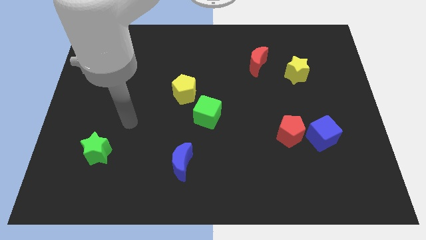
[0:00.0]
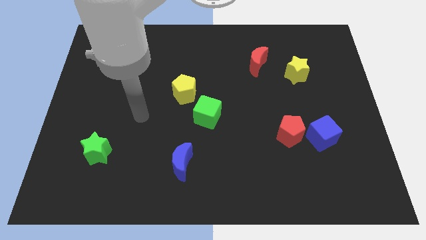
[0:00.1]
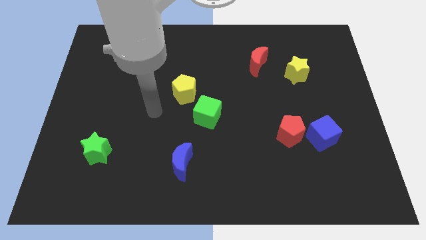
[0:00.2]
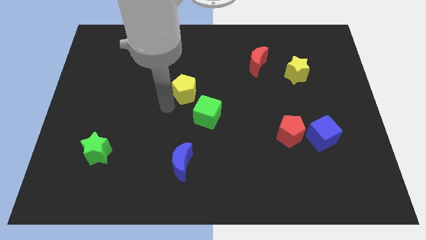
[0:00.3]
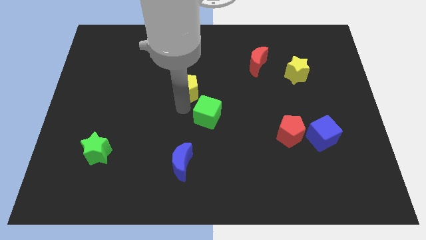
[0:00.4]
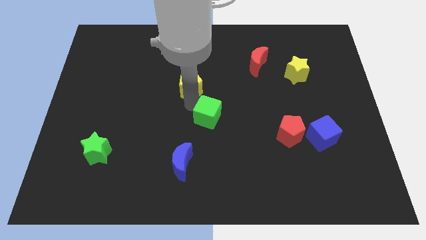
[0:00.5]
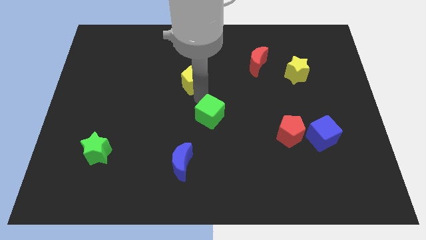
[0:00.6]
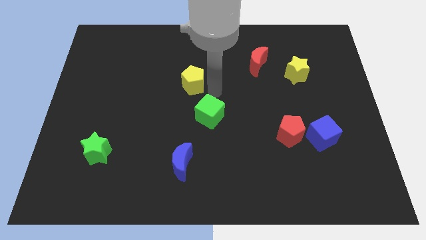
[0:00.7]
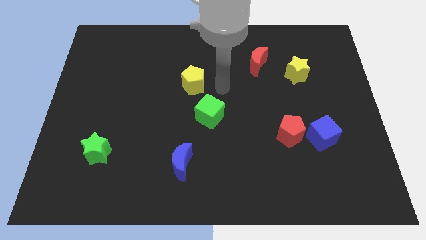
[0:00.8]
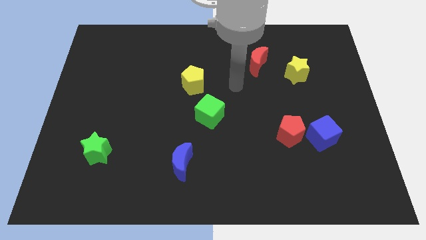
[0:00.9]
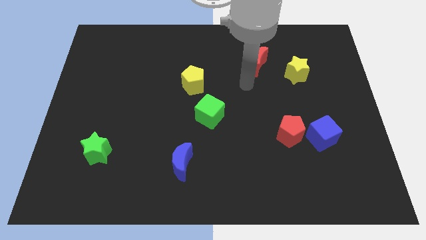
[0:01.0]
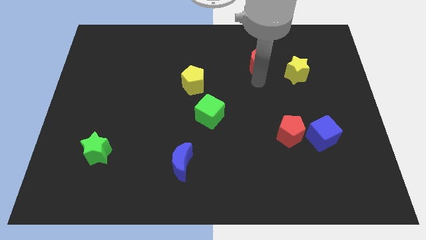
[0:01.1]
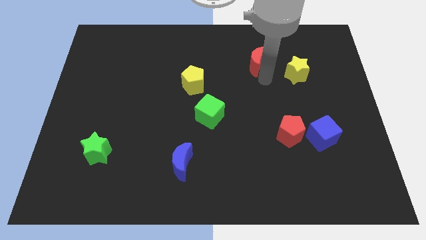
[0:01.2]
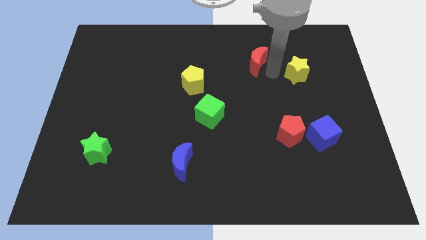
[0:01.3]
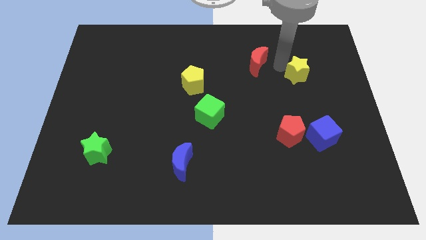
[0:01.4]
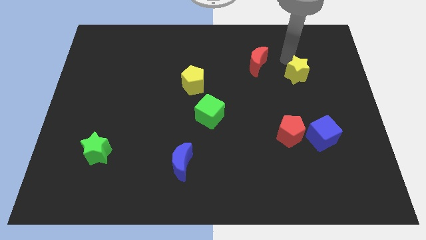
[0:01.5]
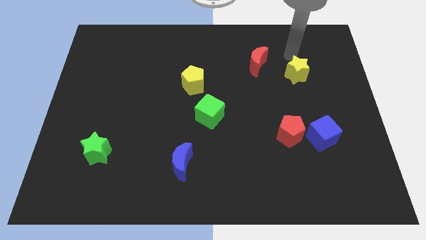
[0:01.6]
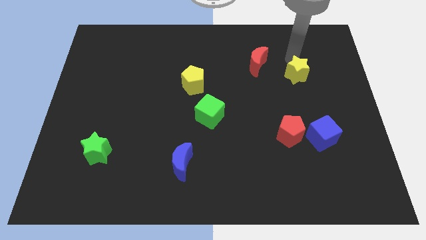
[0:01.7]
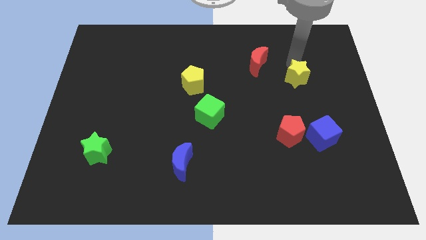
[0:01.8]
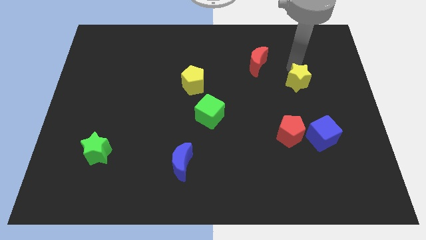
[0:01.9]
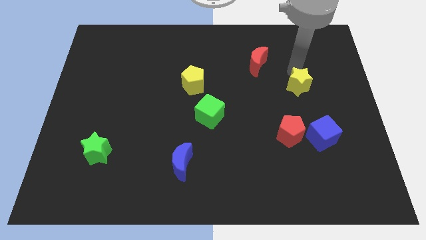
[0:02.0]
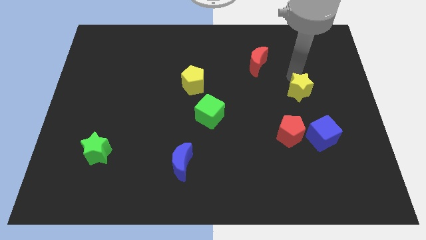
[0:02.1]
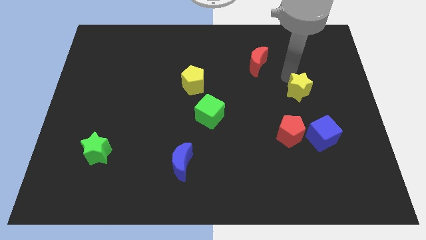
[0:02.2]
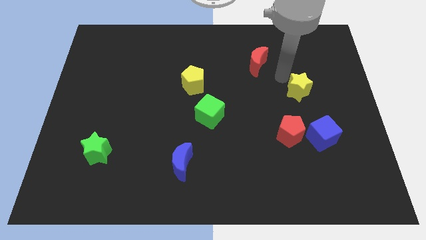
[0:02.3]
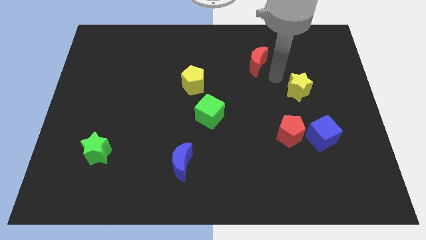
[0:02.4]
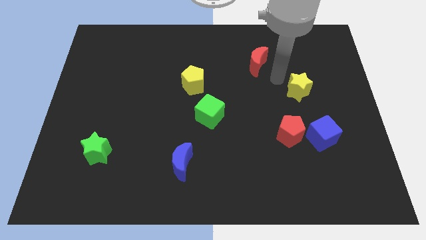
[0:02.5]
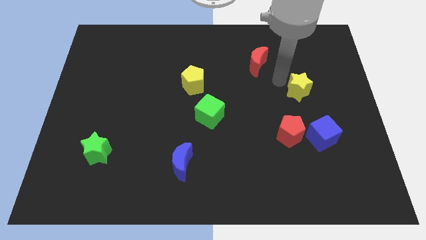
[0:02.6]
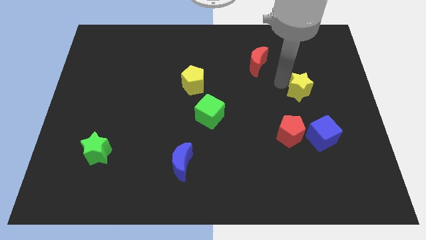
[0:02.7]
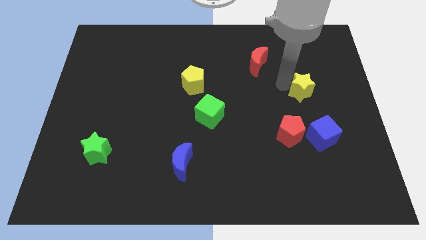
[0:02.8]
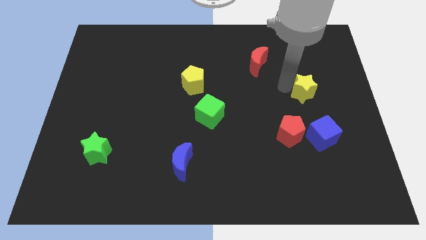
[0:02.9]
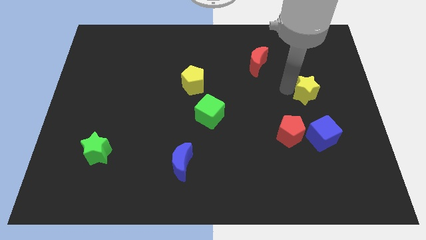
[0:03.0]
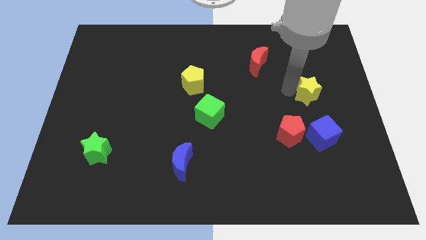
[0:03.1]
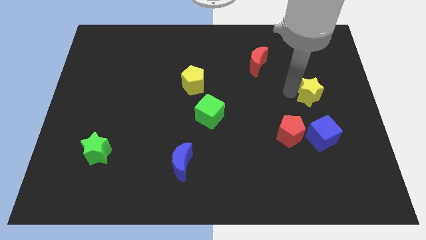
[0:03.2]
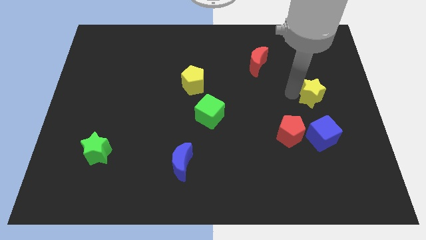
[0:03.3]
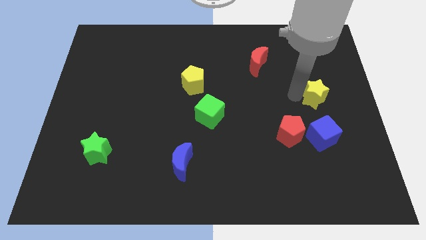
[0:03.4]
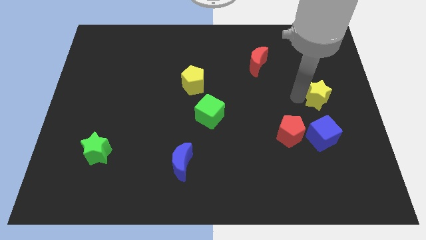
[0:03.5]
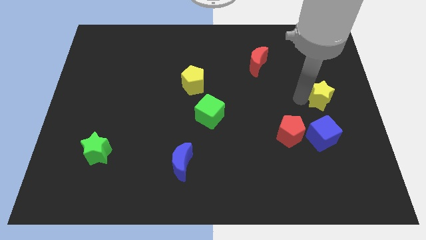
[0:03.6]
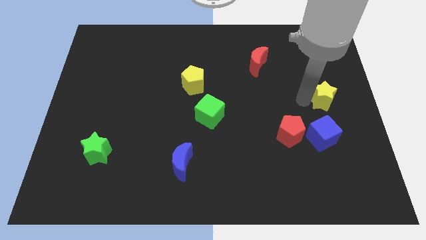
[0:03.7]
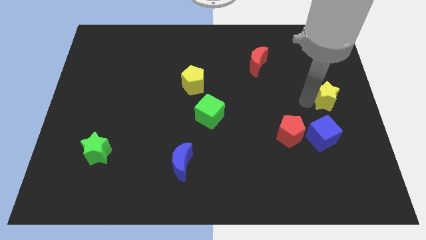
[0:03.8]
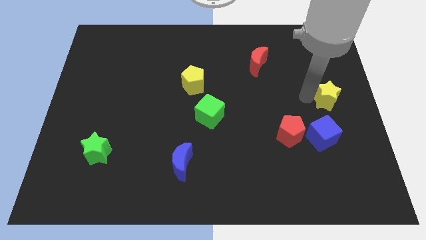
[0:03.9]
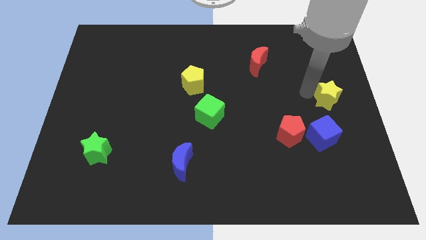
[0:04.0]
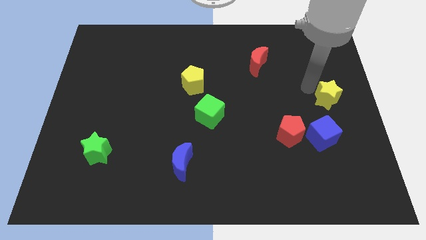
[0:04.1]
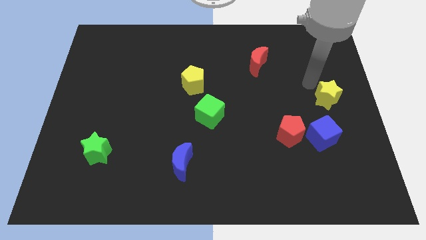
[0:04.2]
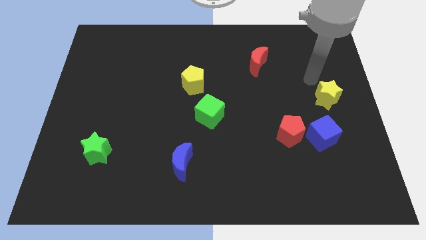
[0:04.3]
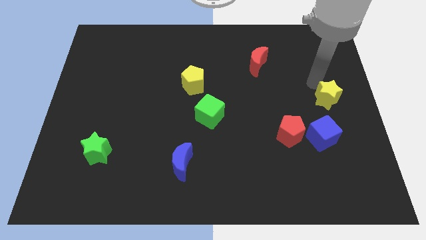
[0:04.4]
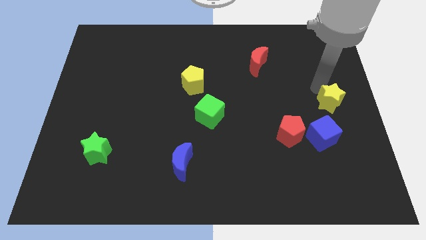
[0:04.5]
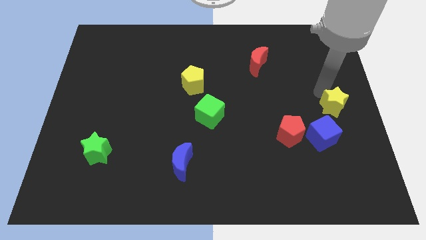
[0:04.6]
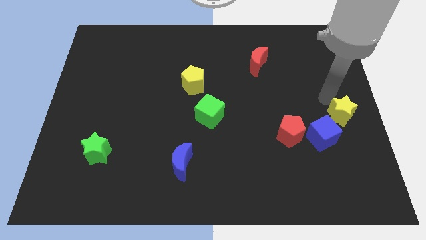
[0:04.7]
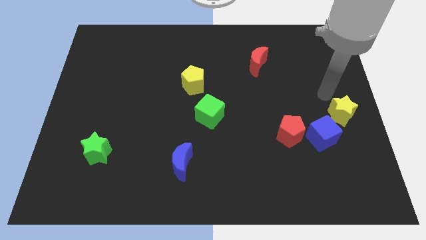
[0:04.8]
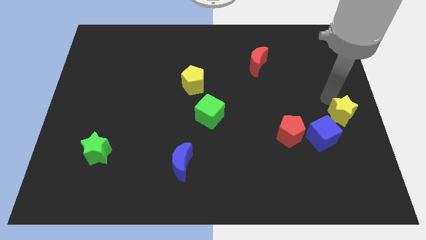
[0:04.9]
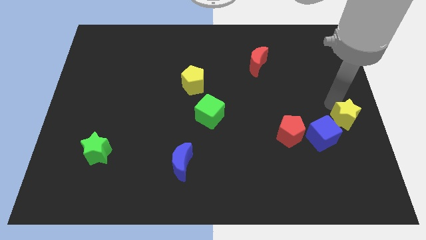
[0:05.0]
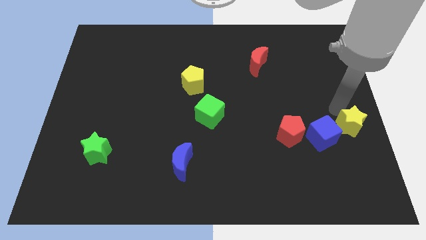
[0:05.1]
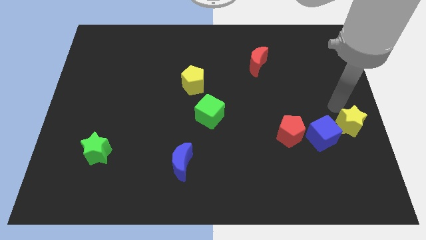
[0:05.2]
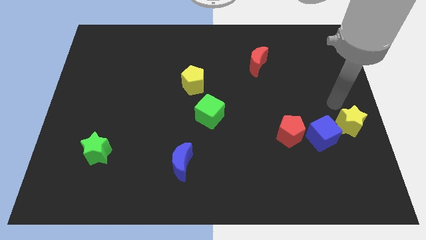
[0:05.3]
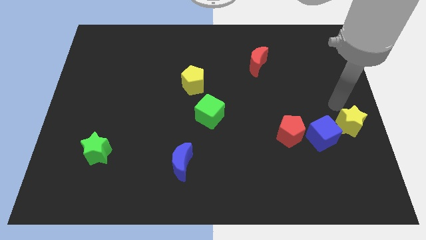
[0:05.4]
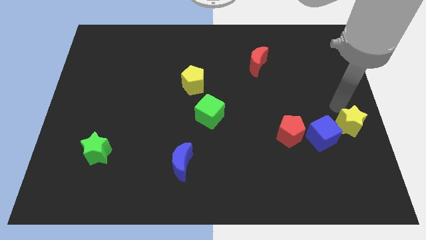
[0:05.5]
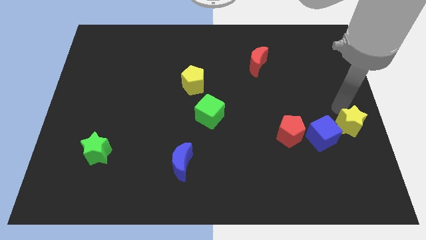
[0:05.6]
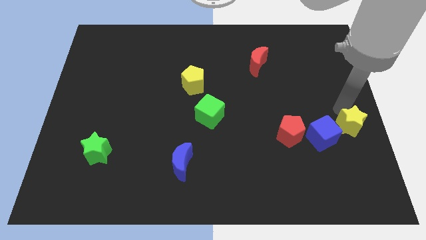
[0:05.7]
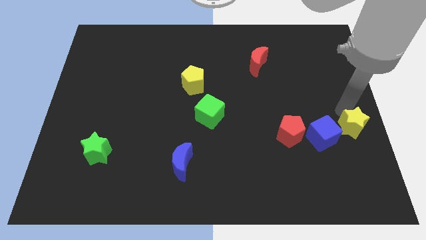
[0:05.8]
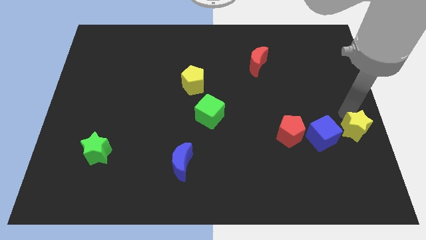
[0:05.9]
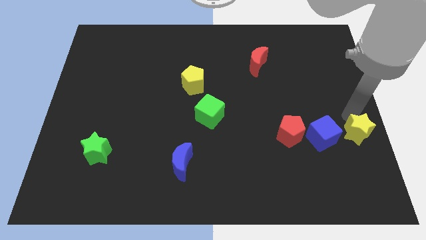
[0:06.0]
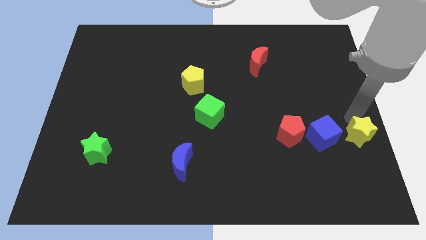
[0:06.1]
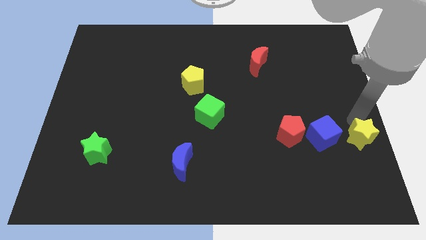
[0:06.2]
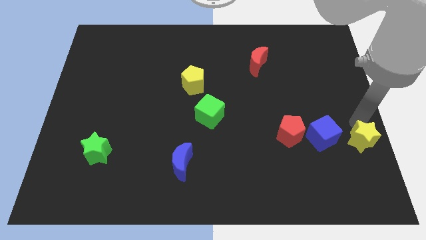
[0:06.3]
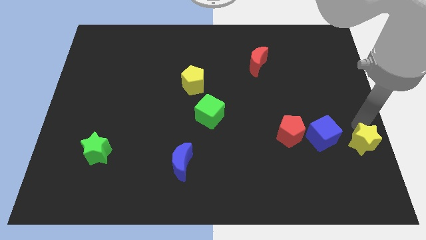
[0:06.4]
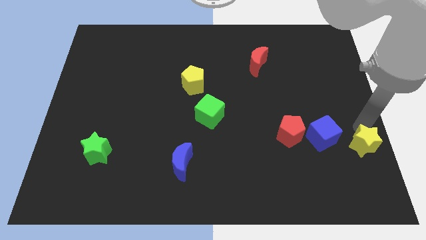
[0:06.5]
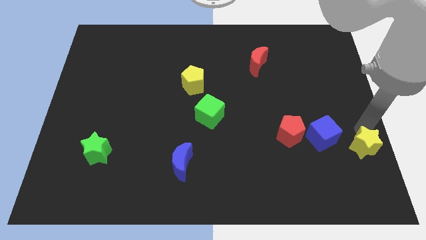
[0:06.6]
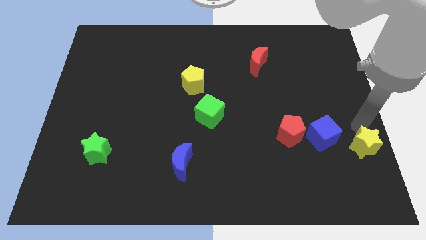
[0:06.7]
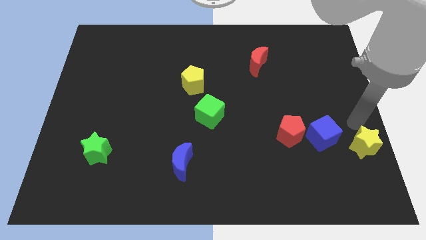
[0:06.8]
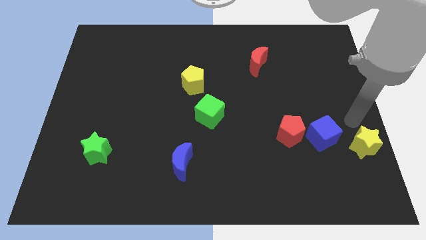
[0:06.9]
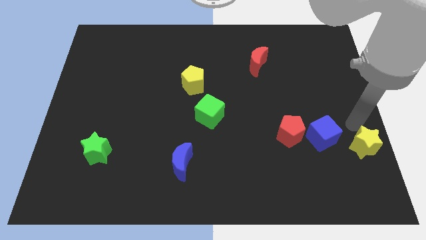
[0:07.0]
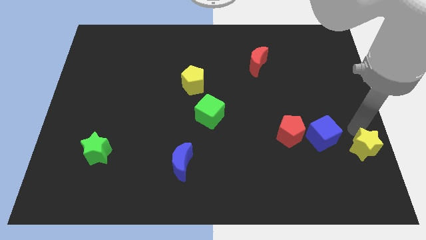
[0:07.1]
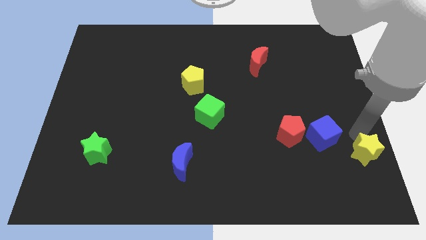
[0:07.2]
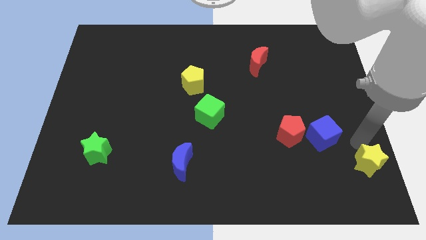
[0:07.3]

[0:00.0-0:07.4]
push the yellow star to the bottom right
